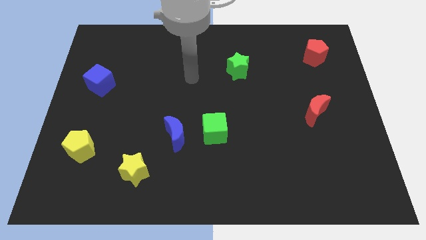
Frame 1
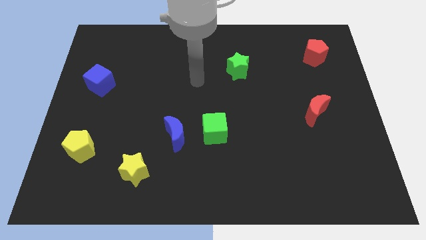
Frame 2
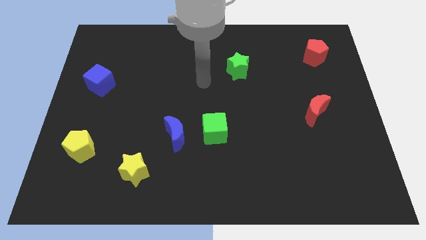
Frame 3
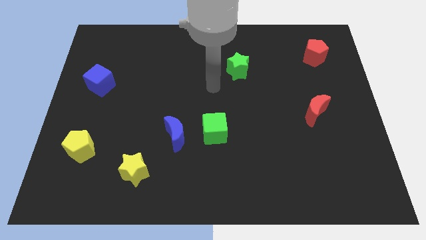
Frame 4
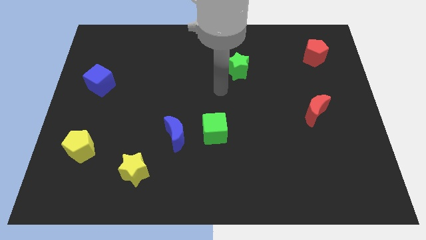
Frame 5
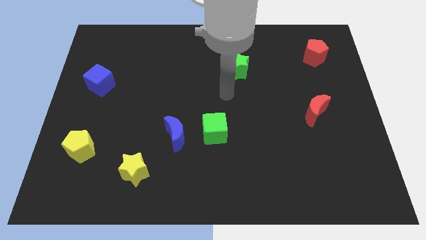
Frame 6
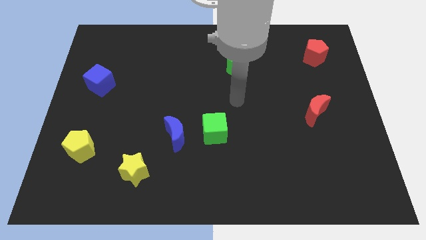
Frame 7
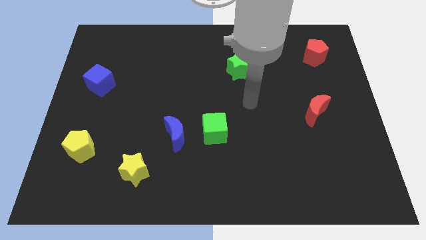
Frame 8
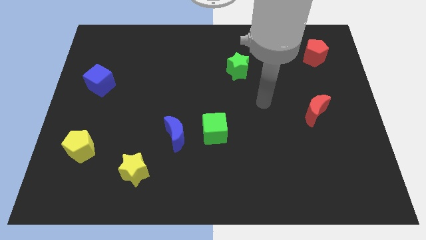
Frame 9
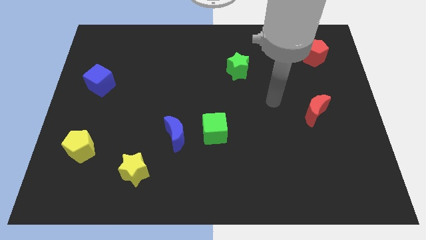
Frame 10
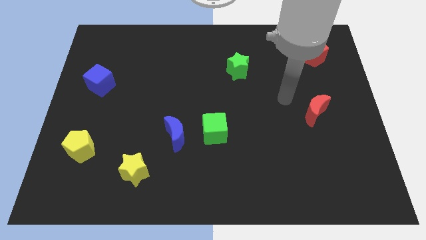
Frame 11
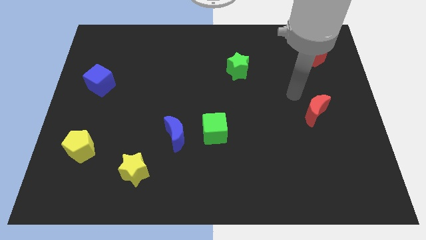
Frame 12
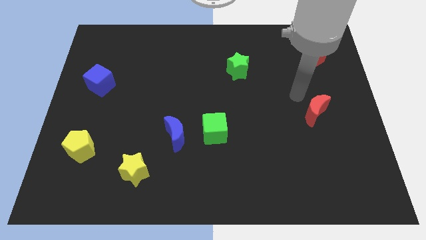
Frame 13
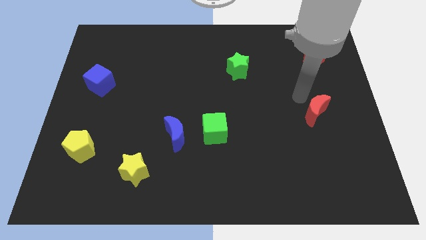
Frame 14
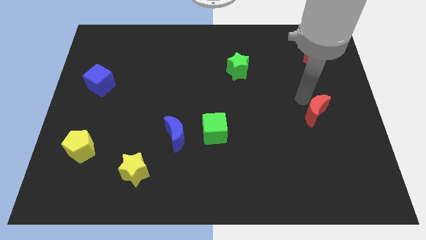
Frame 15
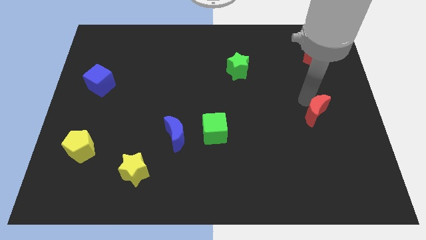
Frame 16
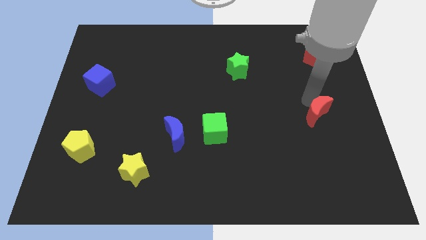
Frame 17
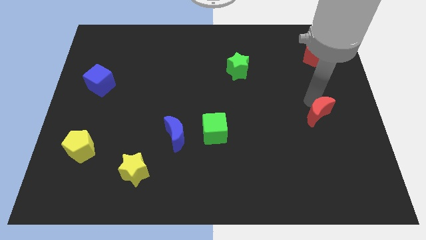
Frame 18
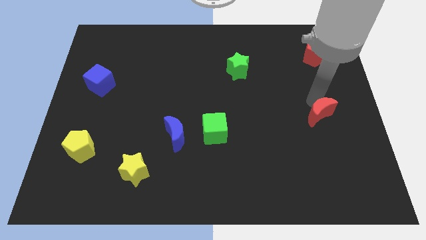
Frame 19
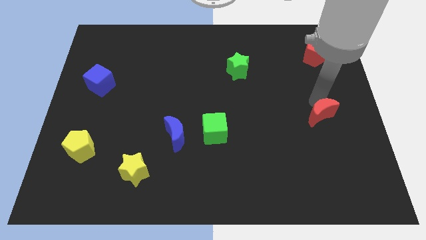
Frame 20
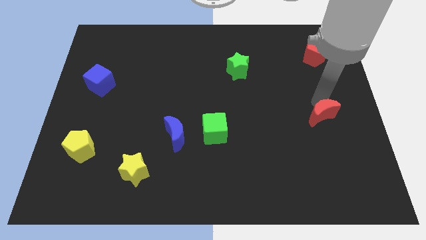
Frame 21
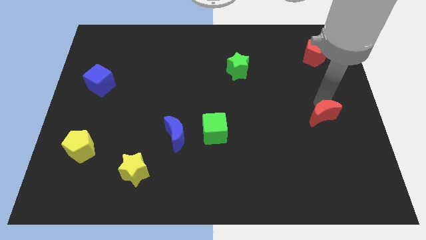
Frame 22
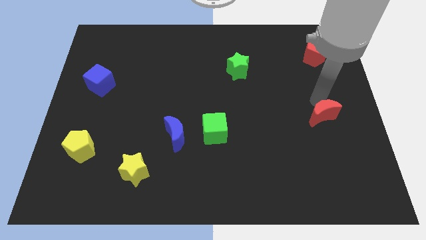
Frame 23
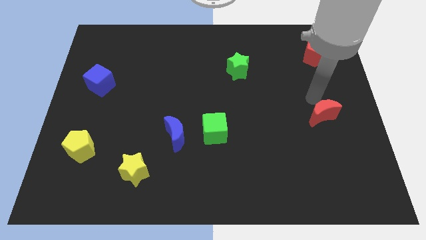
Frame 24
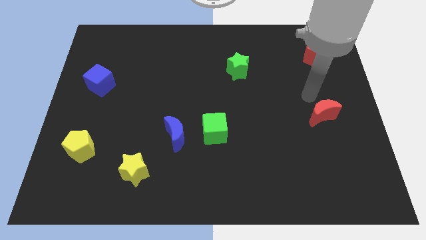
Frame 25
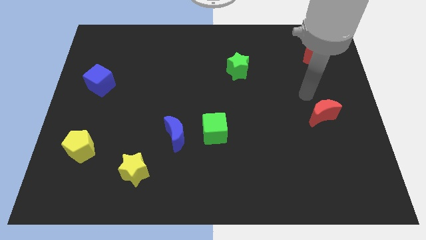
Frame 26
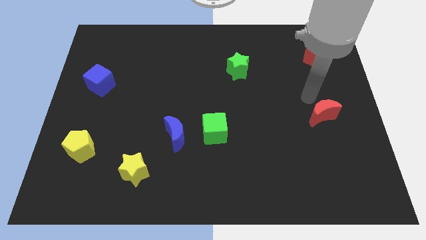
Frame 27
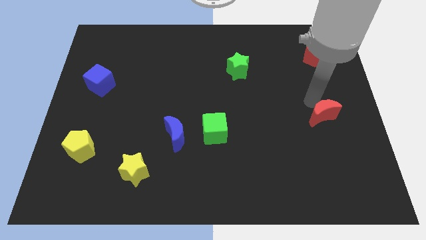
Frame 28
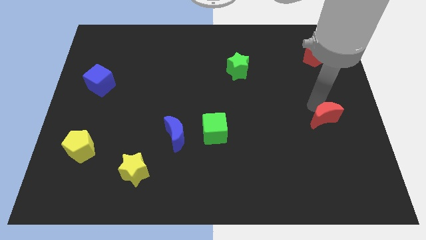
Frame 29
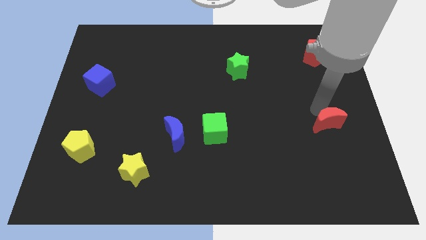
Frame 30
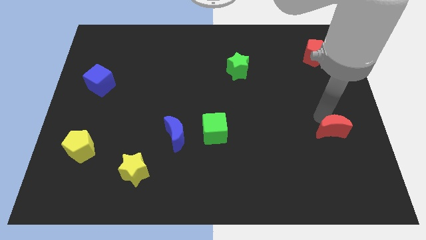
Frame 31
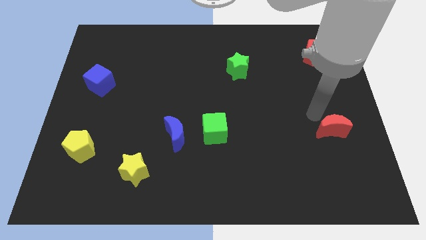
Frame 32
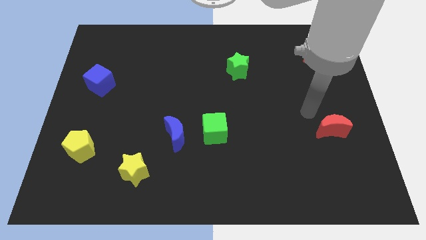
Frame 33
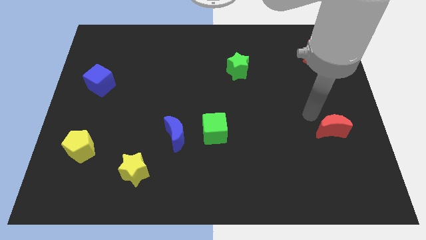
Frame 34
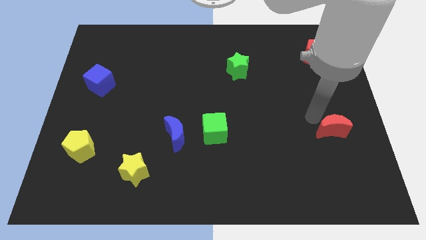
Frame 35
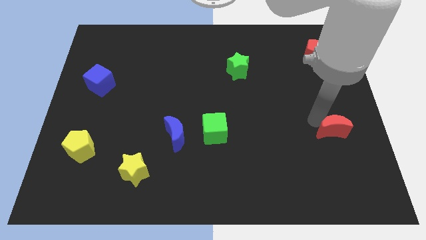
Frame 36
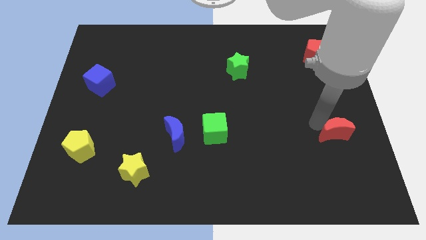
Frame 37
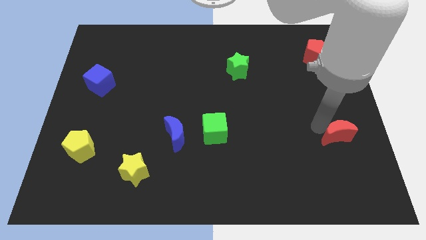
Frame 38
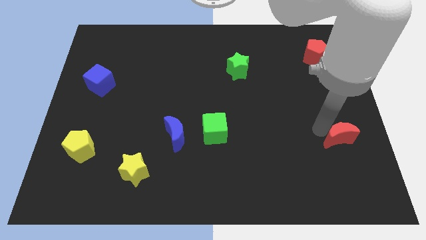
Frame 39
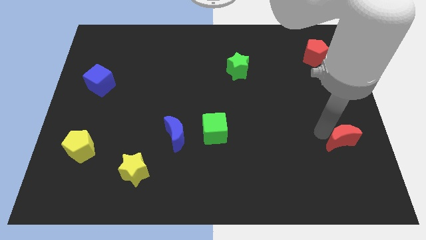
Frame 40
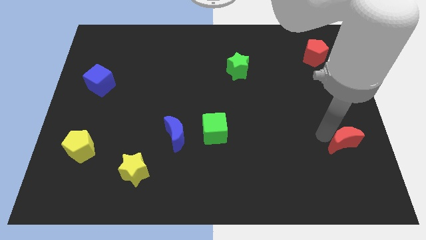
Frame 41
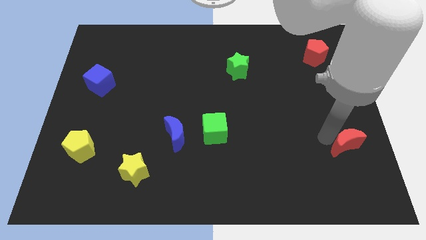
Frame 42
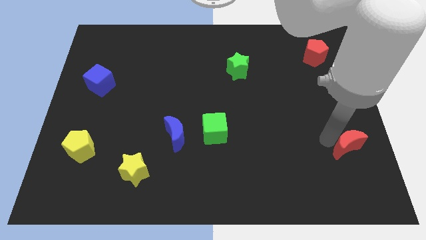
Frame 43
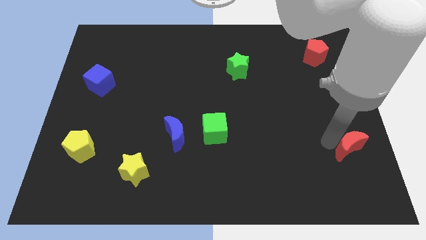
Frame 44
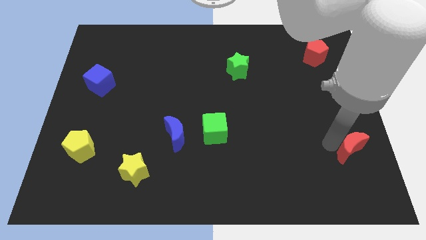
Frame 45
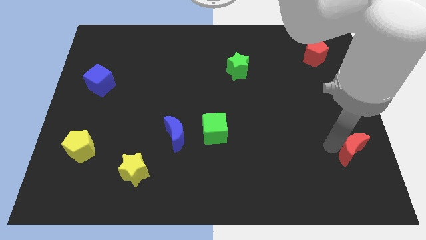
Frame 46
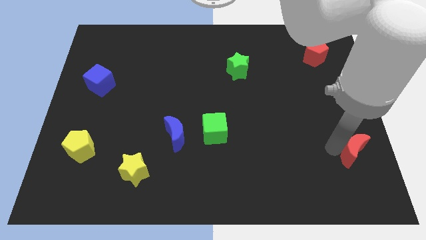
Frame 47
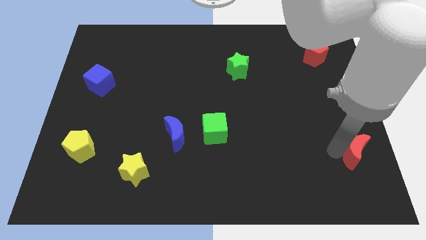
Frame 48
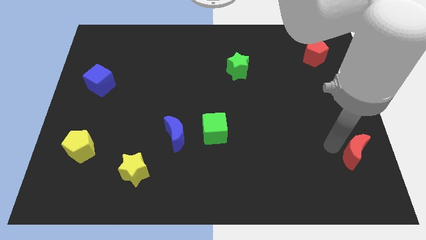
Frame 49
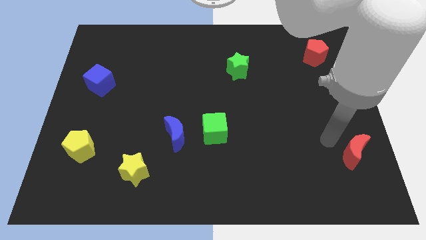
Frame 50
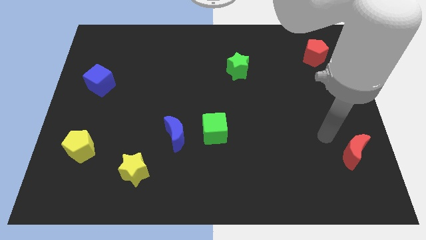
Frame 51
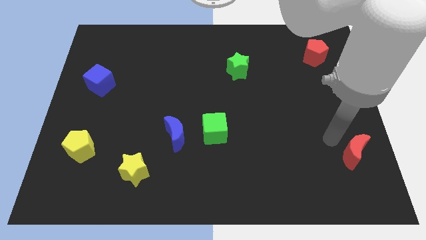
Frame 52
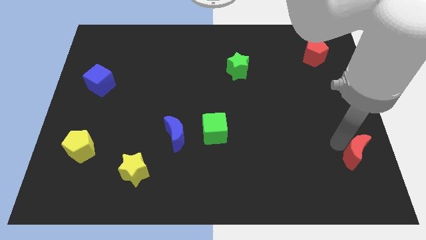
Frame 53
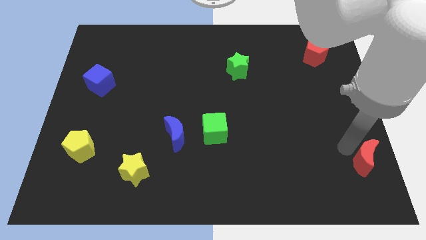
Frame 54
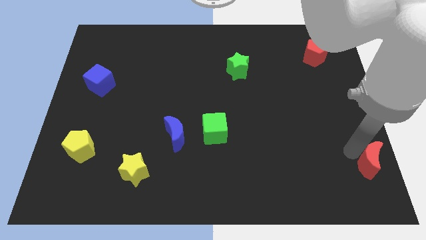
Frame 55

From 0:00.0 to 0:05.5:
slide the red moon to the bottom right of the board

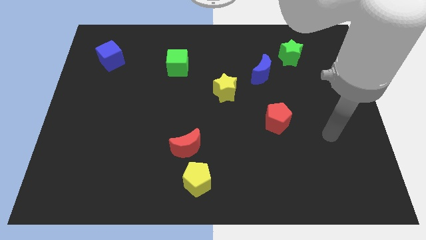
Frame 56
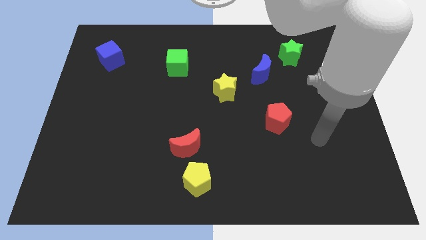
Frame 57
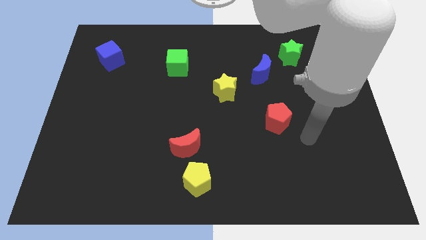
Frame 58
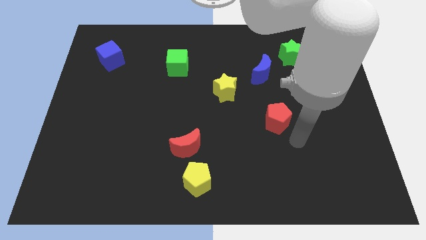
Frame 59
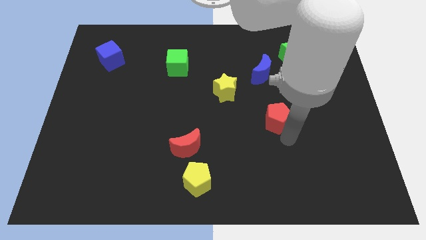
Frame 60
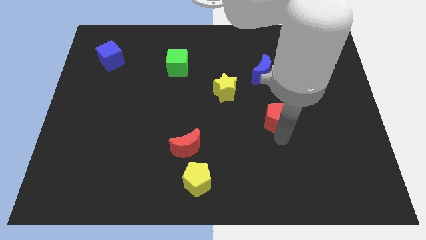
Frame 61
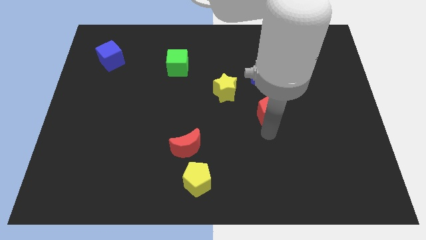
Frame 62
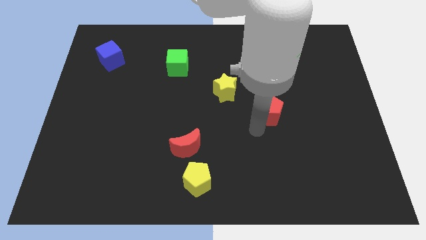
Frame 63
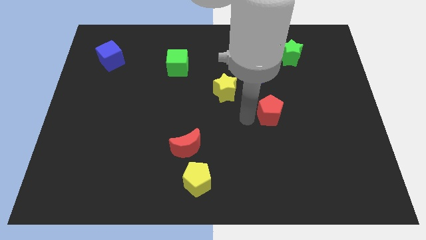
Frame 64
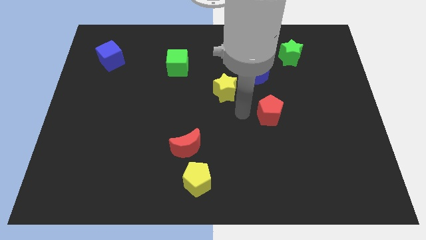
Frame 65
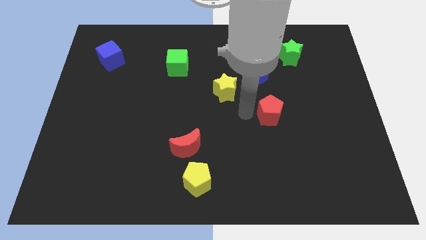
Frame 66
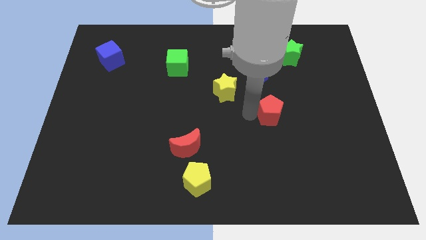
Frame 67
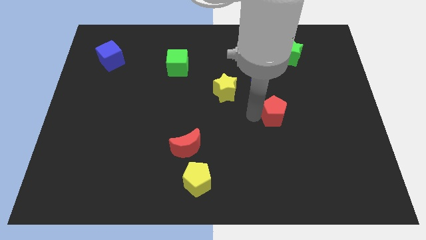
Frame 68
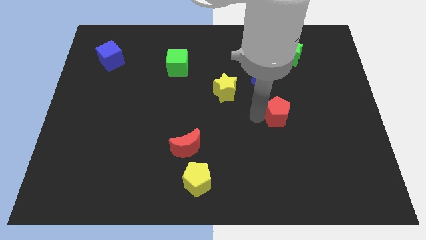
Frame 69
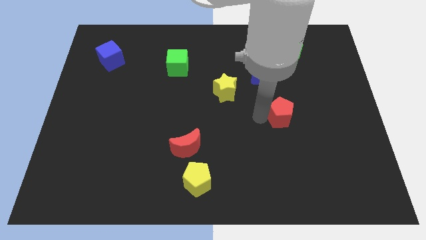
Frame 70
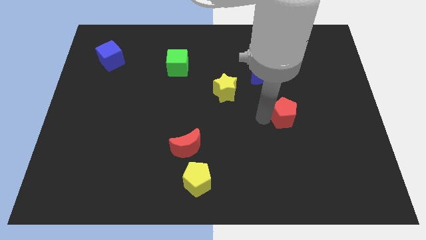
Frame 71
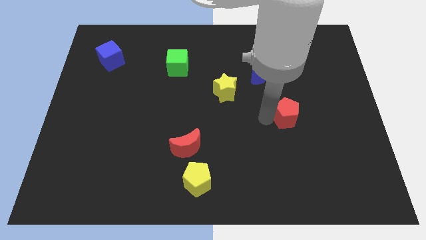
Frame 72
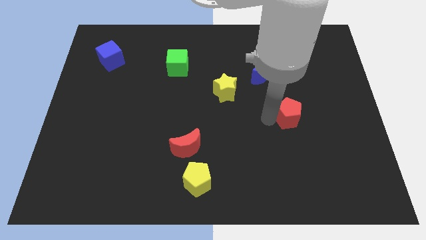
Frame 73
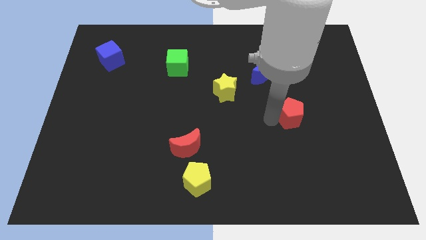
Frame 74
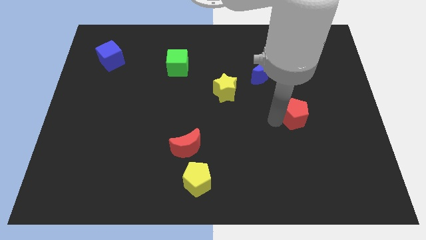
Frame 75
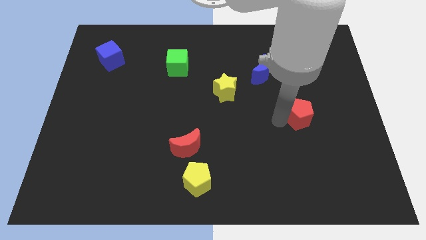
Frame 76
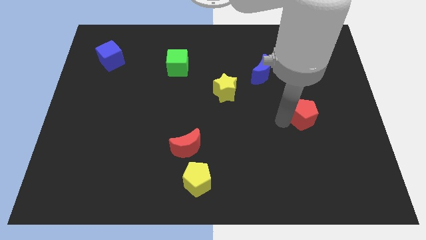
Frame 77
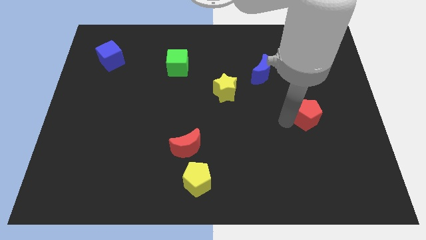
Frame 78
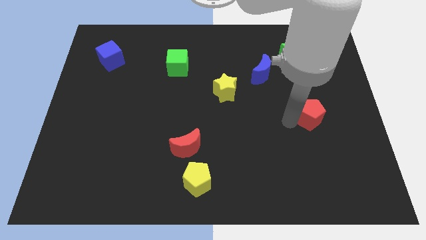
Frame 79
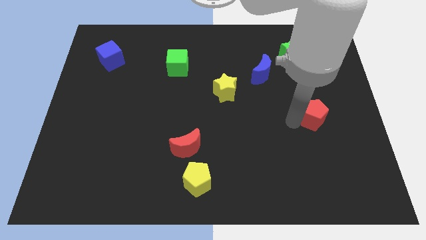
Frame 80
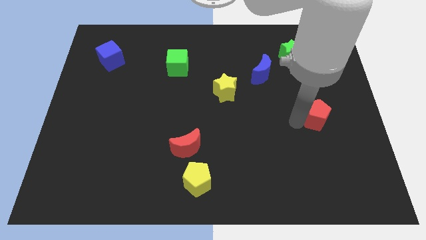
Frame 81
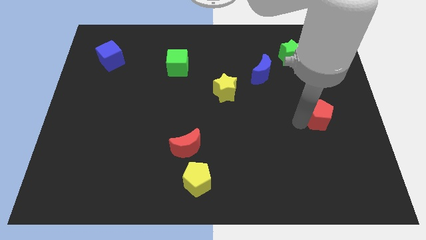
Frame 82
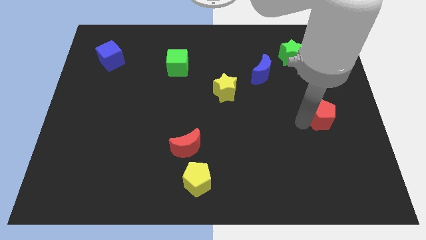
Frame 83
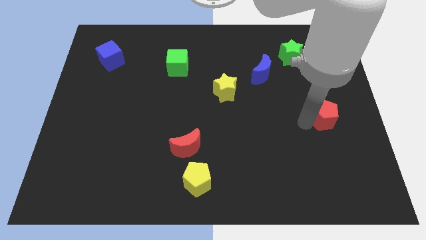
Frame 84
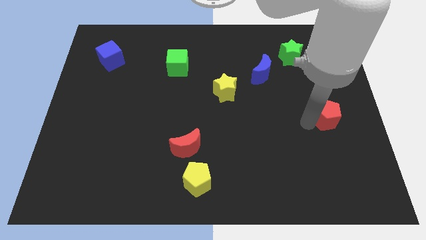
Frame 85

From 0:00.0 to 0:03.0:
push the red pentagon to the right side of the board
